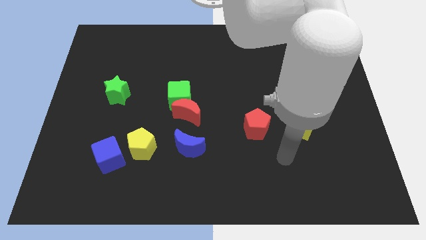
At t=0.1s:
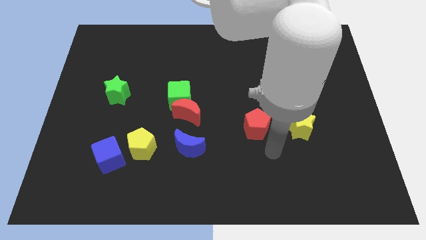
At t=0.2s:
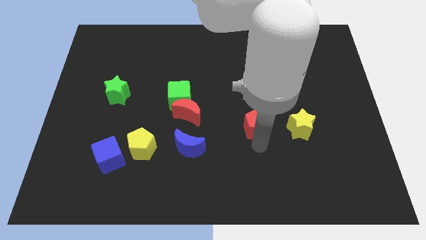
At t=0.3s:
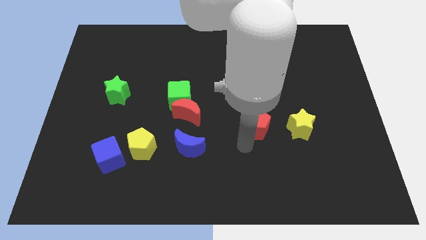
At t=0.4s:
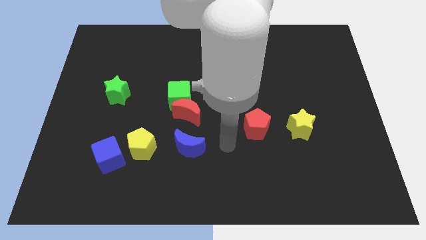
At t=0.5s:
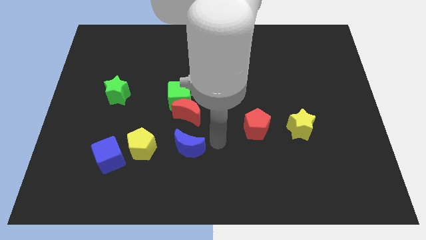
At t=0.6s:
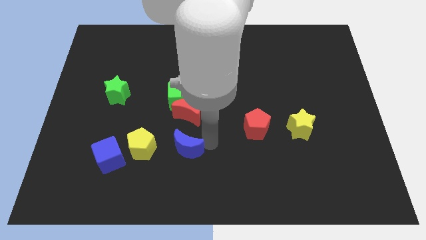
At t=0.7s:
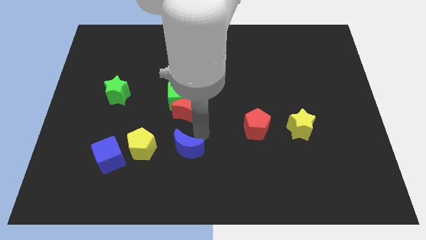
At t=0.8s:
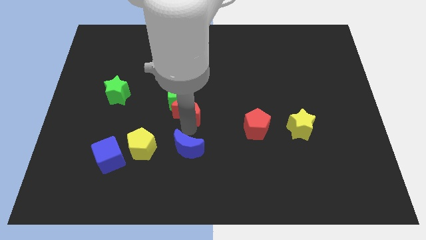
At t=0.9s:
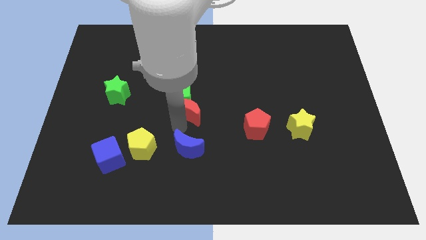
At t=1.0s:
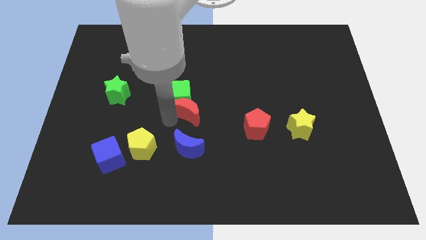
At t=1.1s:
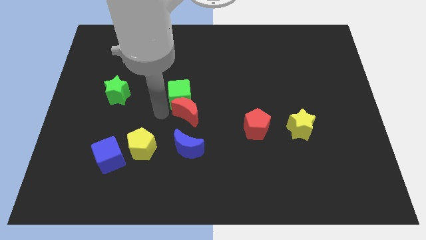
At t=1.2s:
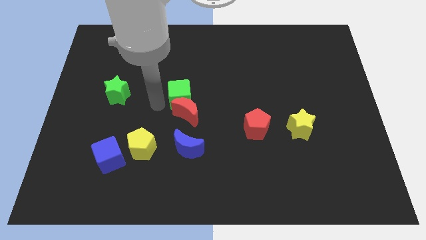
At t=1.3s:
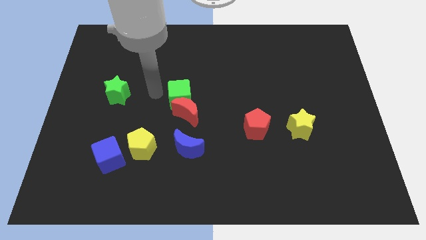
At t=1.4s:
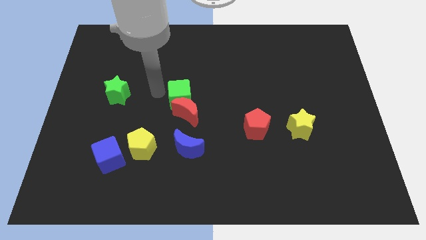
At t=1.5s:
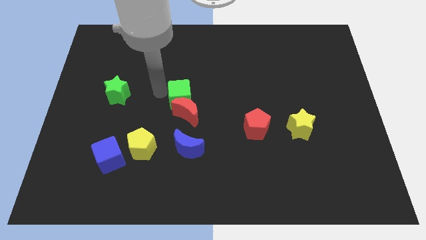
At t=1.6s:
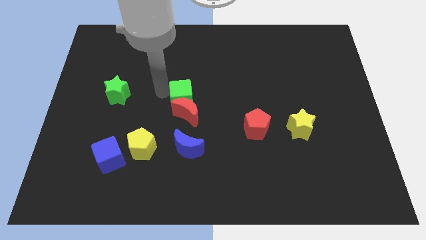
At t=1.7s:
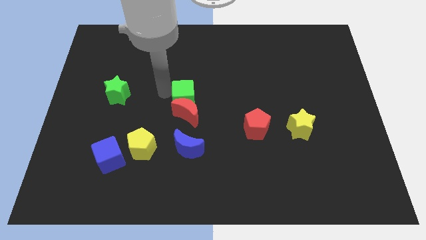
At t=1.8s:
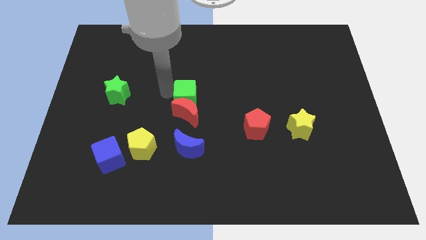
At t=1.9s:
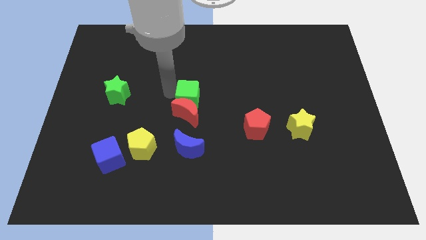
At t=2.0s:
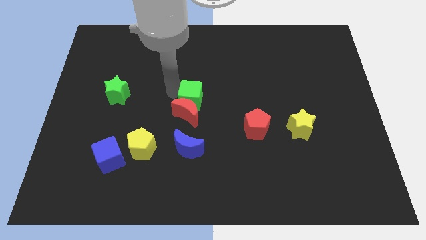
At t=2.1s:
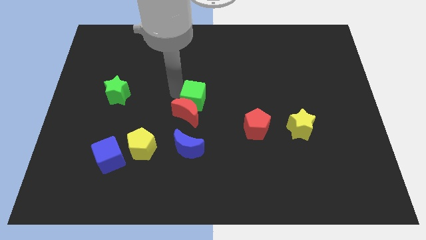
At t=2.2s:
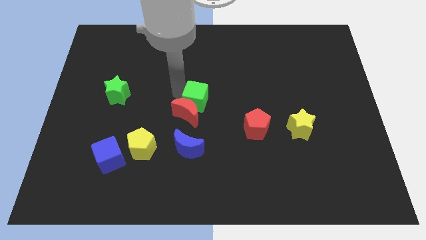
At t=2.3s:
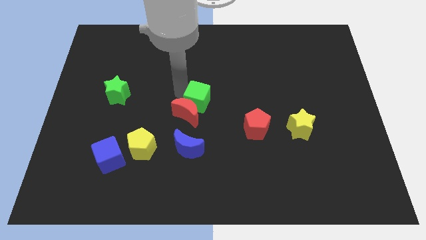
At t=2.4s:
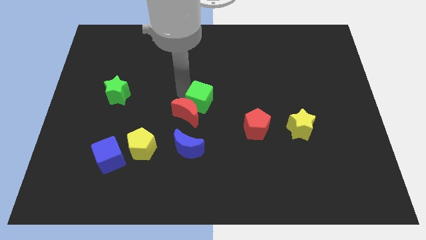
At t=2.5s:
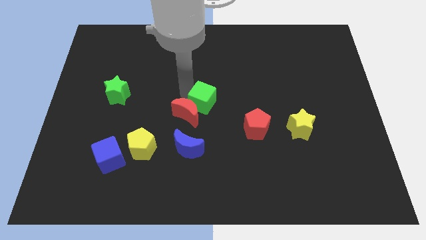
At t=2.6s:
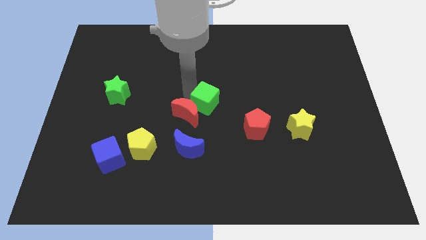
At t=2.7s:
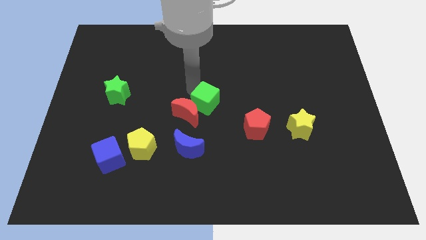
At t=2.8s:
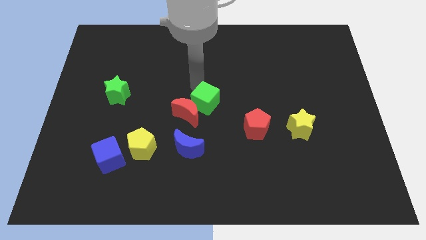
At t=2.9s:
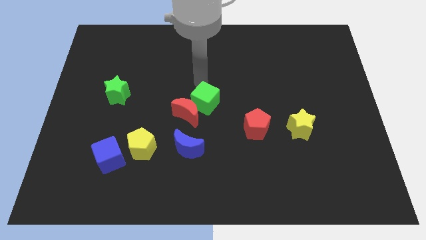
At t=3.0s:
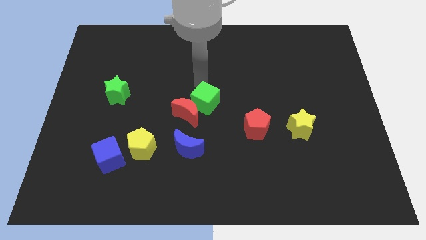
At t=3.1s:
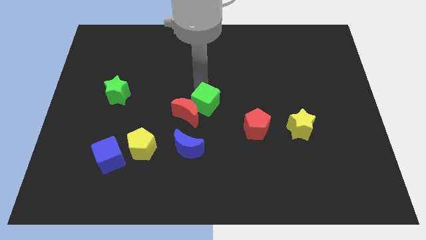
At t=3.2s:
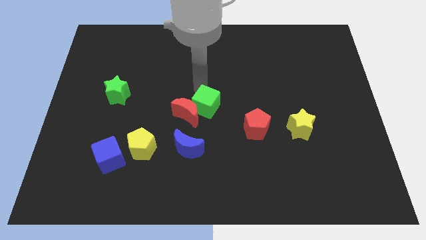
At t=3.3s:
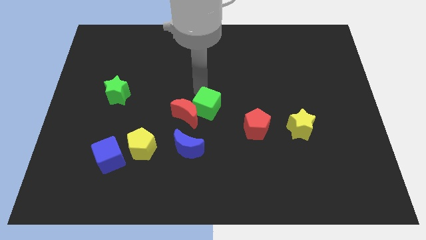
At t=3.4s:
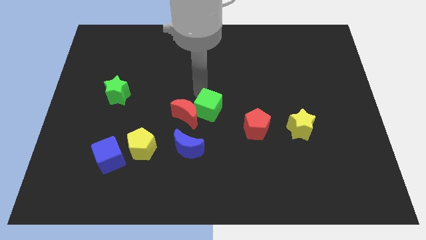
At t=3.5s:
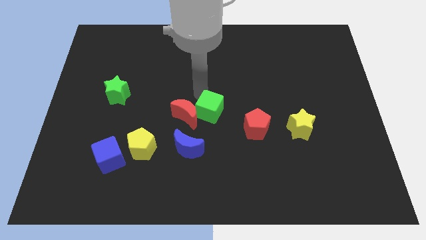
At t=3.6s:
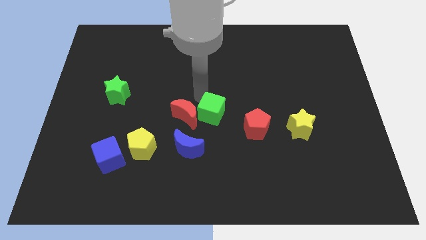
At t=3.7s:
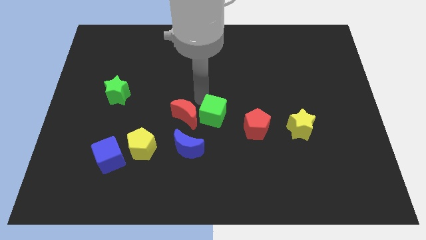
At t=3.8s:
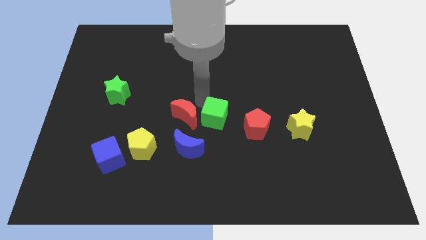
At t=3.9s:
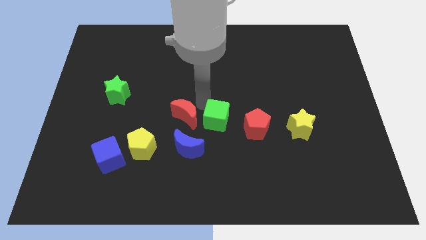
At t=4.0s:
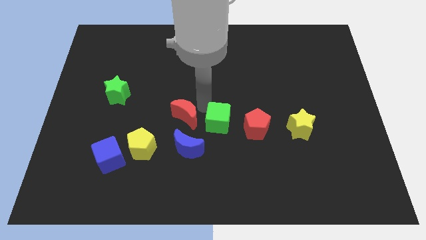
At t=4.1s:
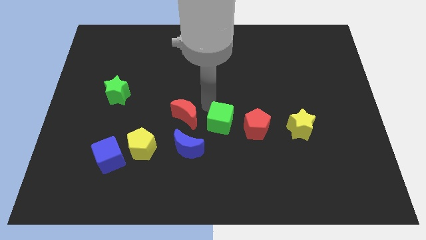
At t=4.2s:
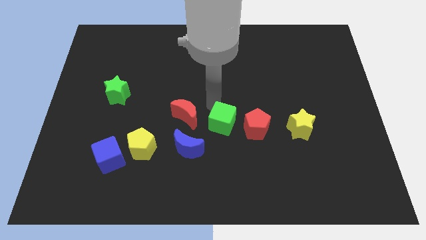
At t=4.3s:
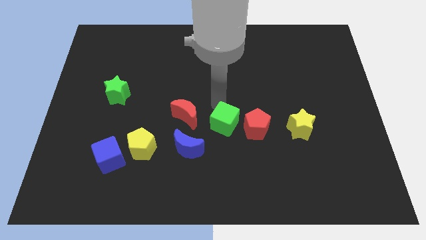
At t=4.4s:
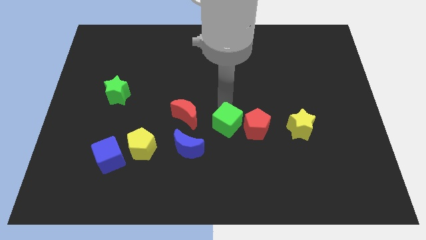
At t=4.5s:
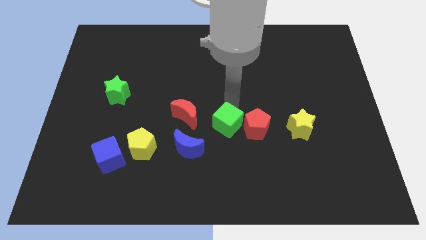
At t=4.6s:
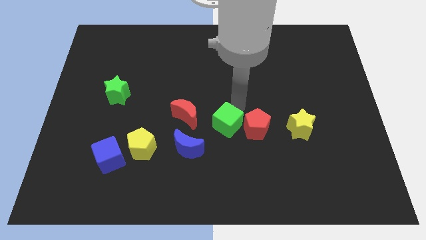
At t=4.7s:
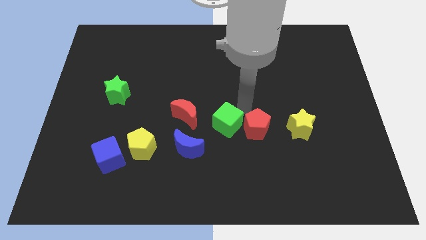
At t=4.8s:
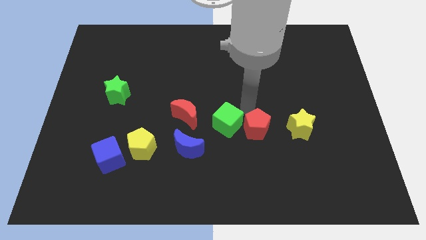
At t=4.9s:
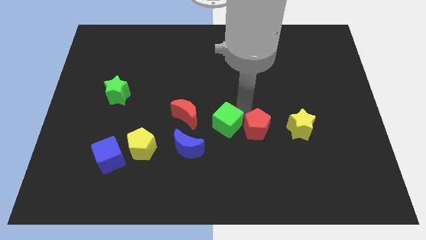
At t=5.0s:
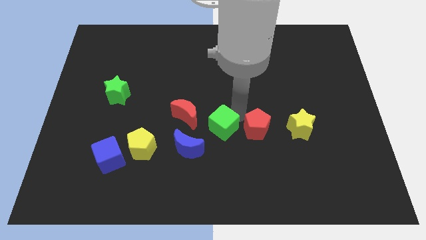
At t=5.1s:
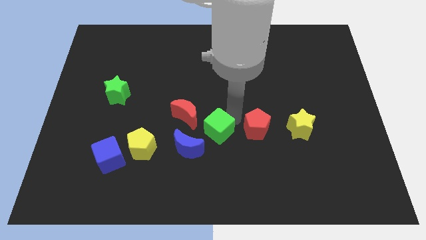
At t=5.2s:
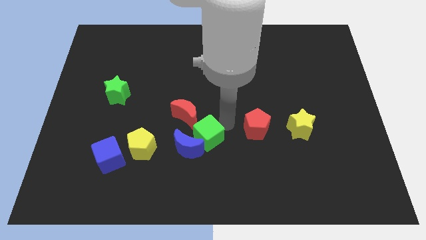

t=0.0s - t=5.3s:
put the green cube to the right side of the yellow pentagon

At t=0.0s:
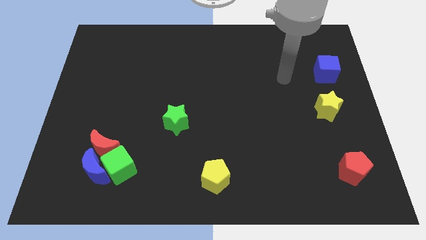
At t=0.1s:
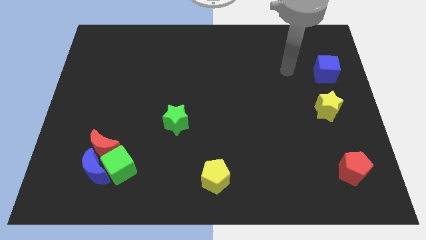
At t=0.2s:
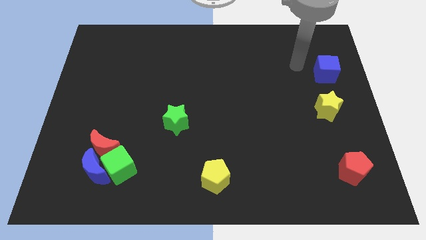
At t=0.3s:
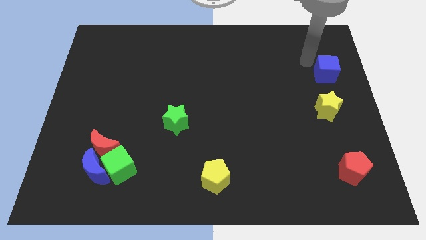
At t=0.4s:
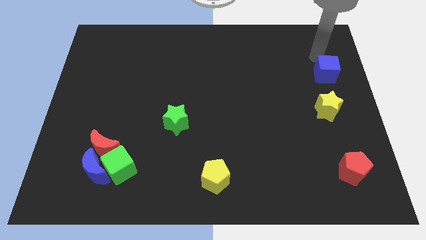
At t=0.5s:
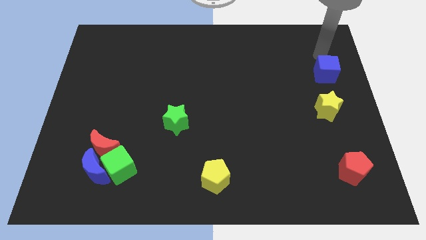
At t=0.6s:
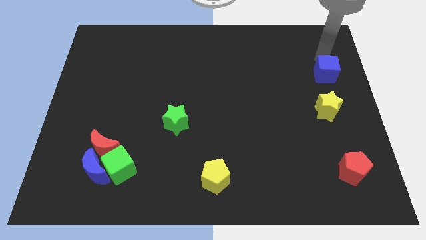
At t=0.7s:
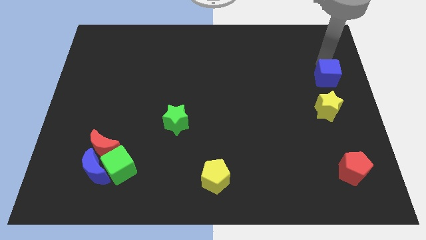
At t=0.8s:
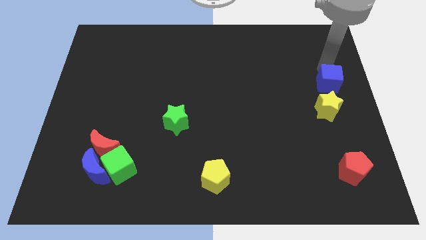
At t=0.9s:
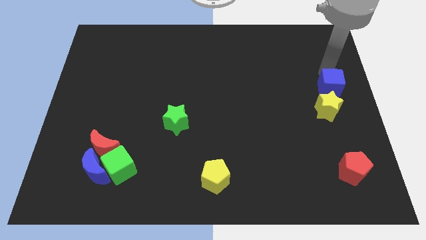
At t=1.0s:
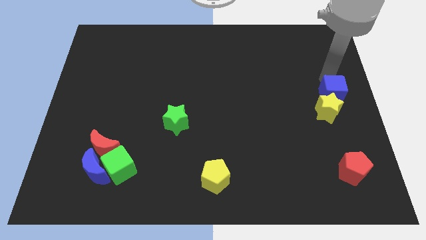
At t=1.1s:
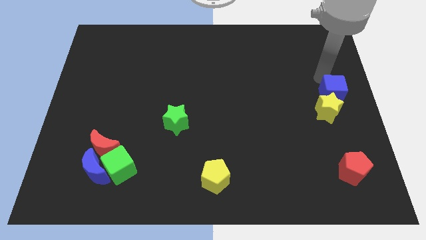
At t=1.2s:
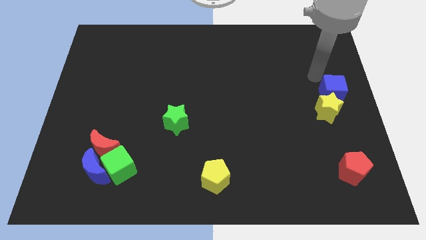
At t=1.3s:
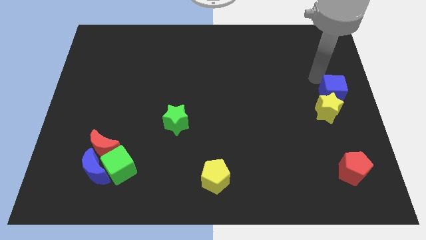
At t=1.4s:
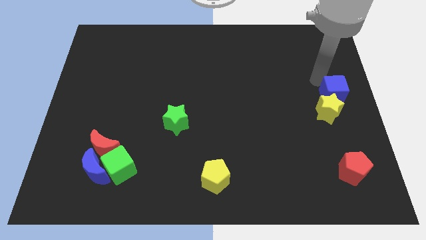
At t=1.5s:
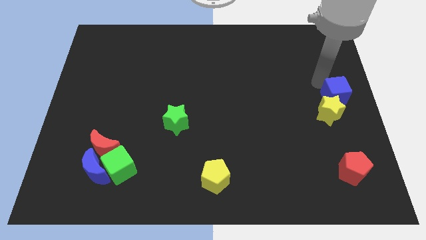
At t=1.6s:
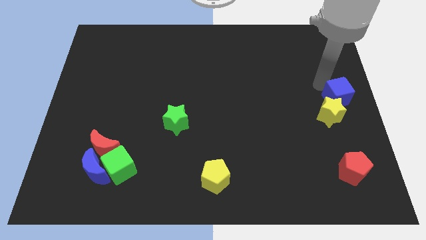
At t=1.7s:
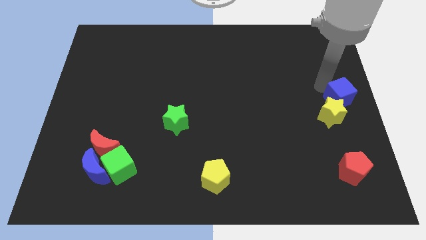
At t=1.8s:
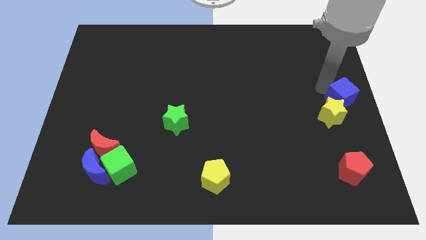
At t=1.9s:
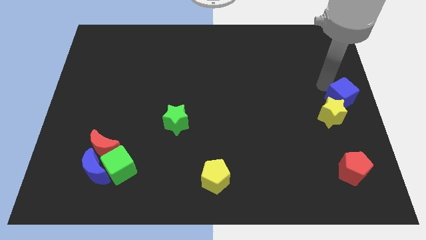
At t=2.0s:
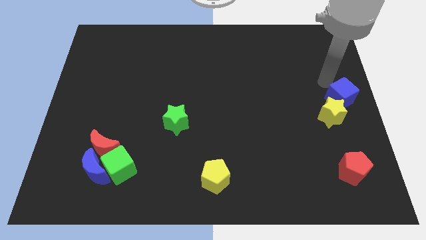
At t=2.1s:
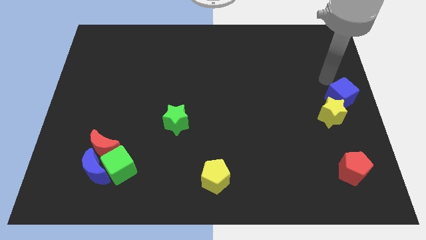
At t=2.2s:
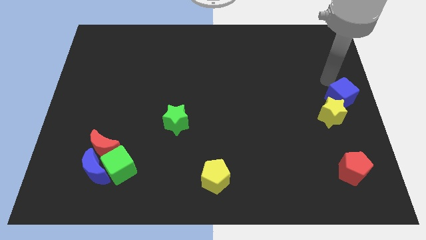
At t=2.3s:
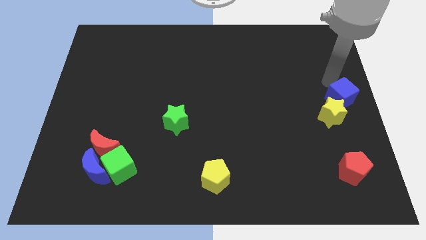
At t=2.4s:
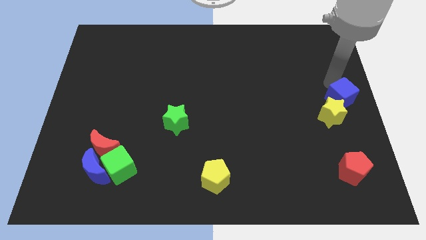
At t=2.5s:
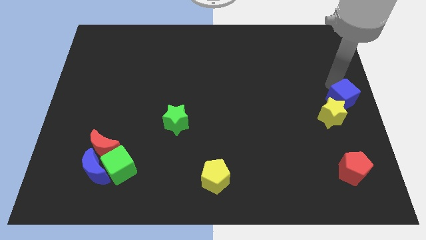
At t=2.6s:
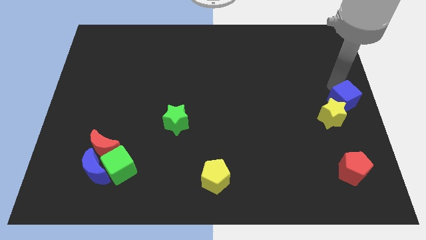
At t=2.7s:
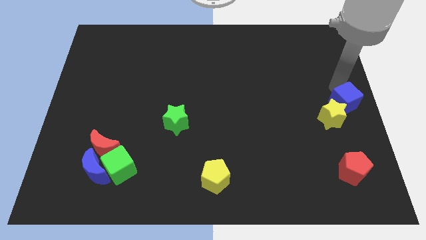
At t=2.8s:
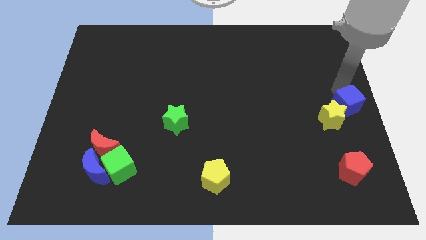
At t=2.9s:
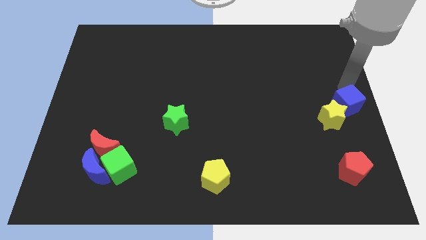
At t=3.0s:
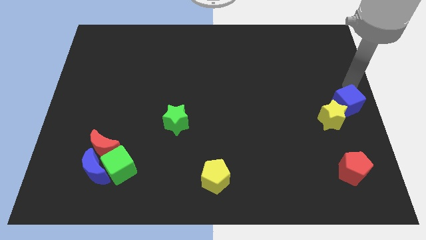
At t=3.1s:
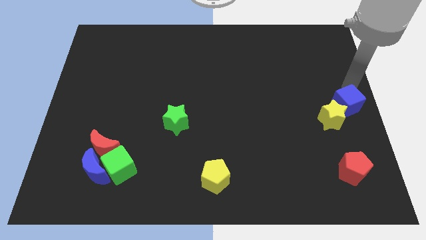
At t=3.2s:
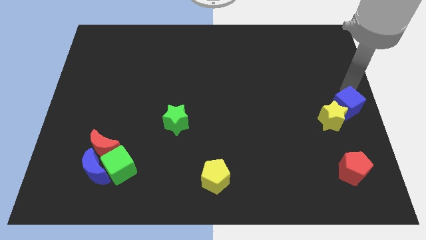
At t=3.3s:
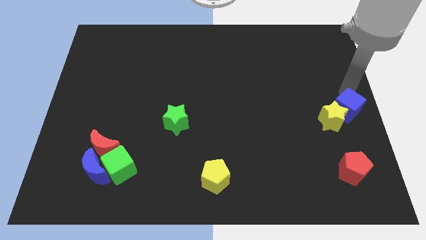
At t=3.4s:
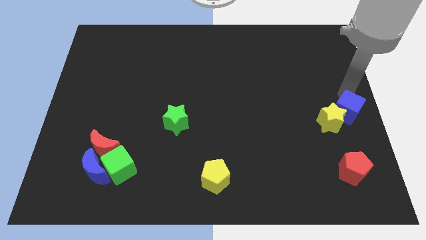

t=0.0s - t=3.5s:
slide the blue cube to the top of the red pentagon
